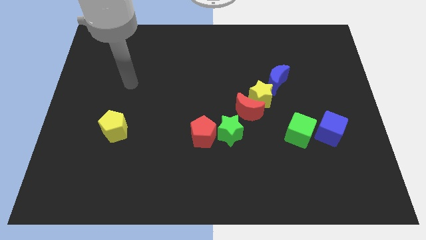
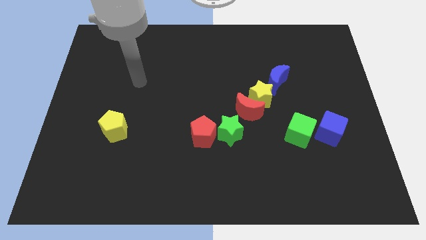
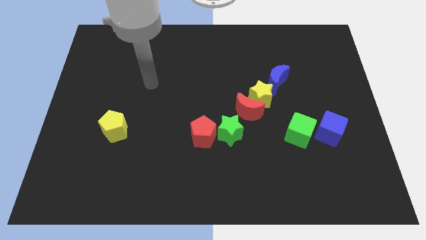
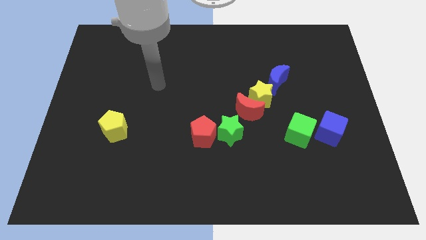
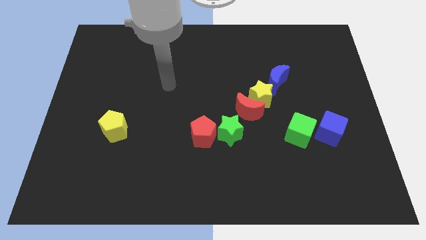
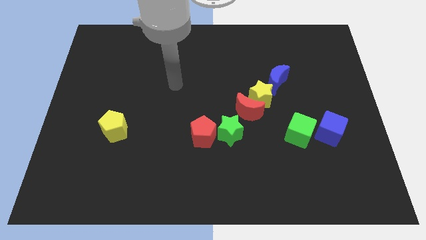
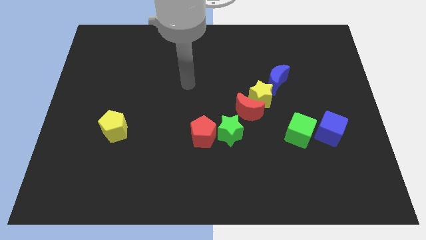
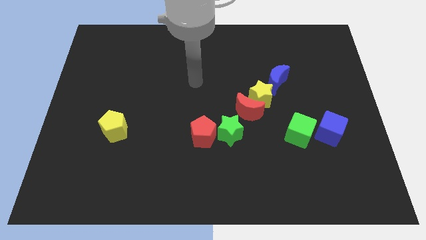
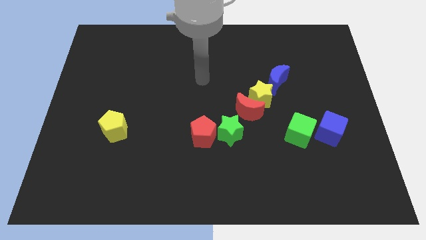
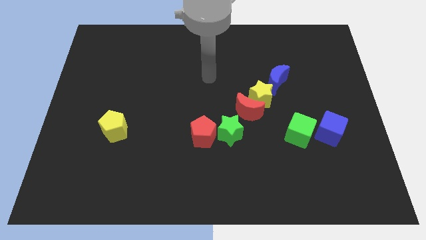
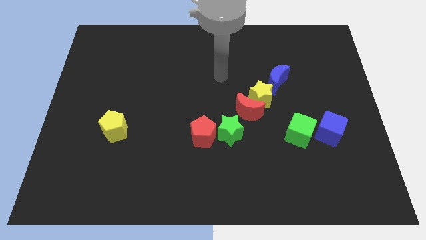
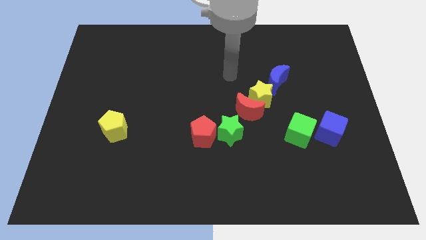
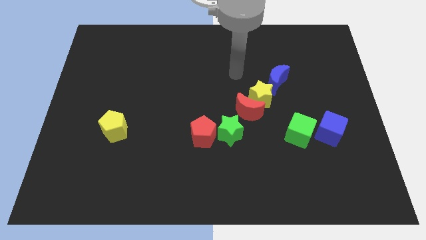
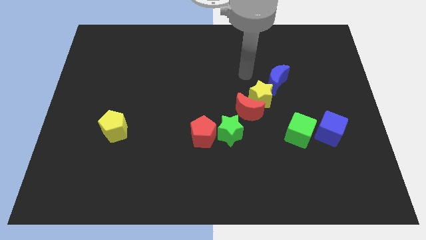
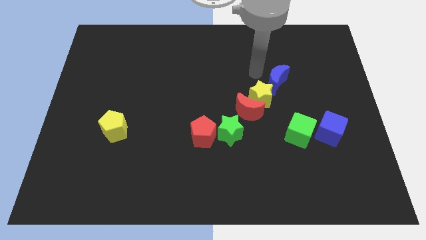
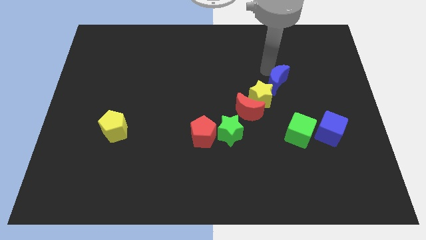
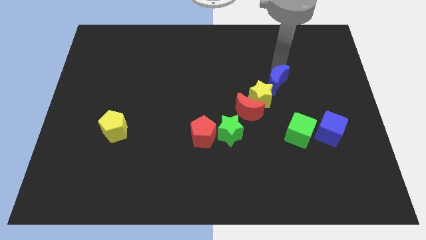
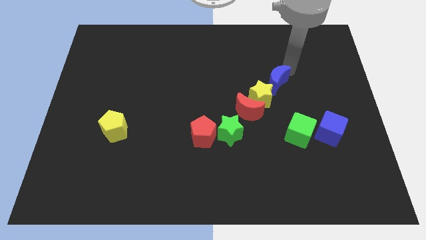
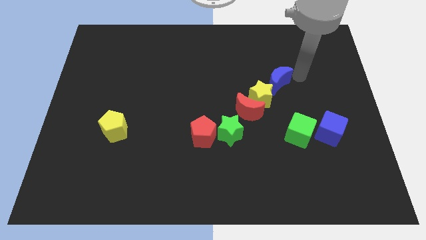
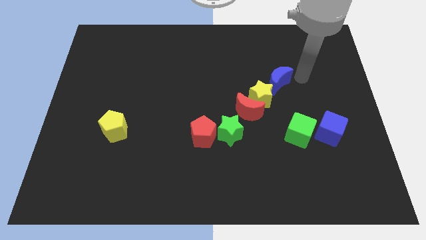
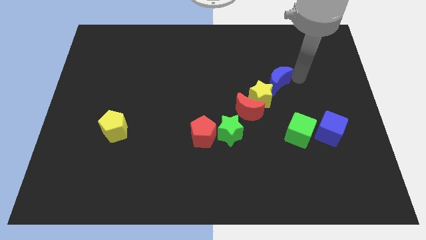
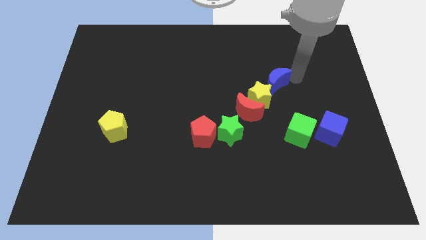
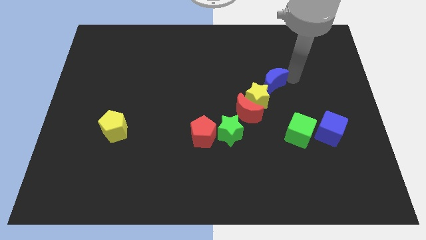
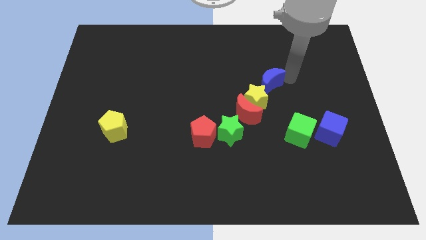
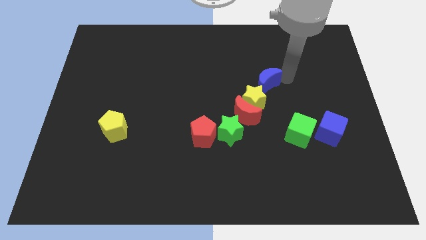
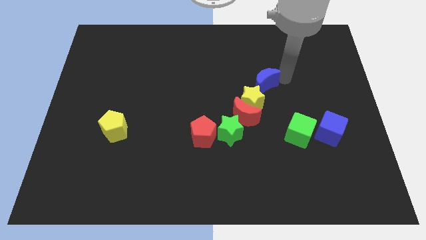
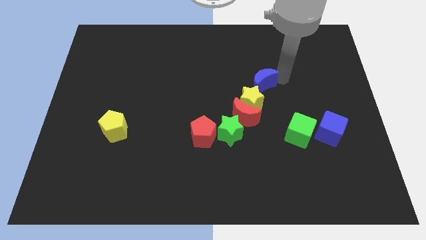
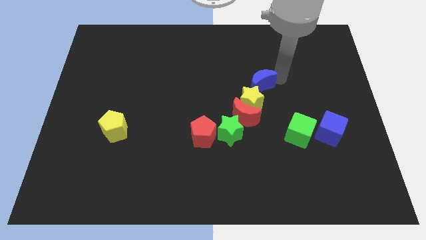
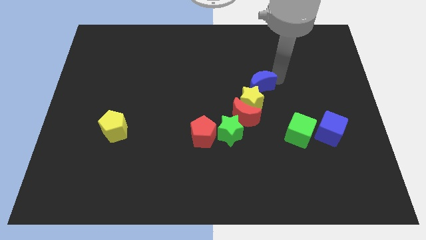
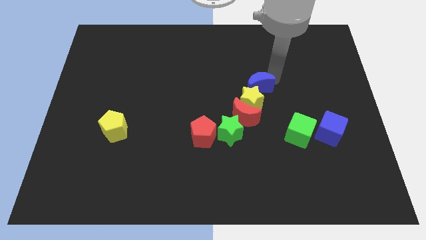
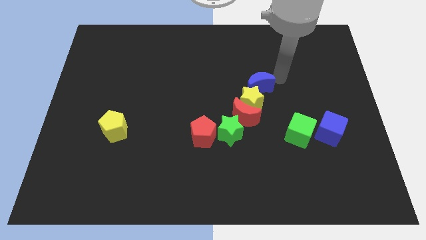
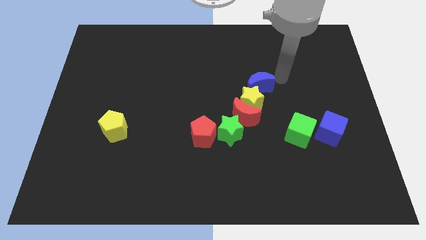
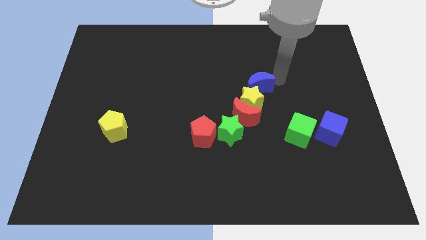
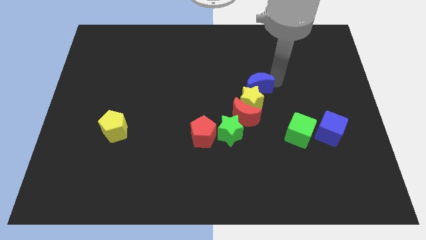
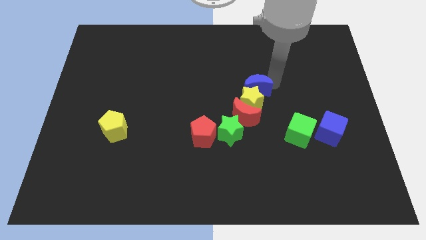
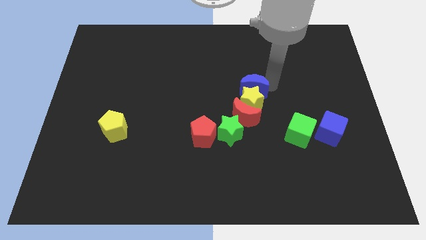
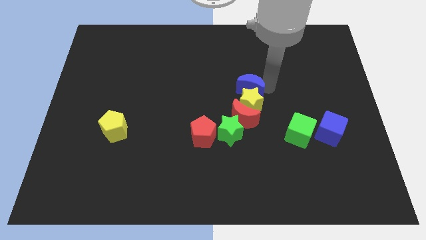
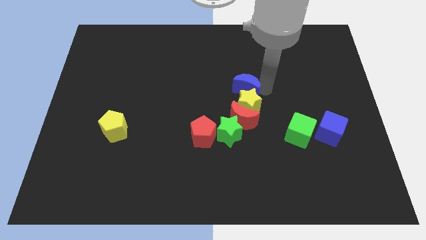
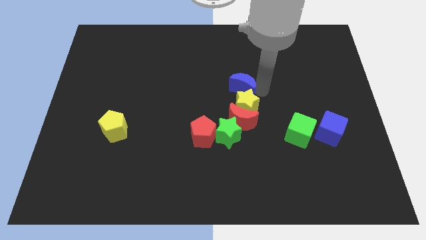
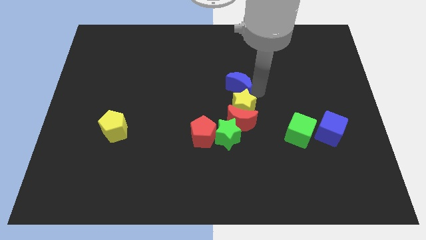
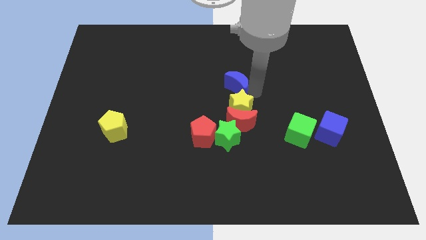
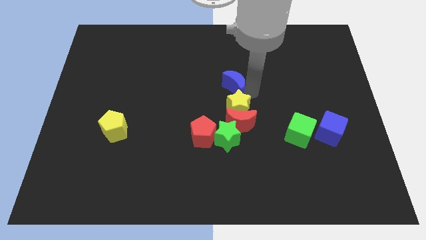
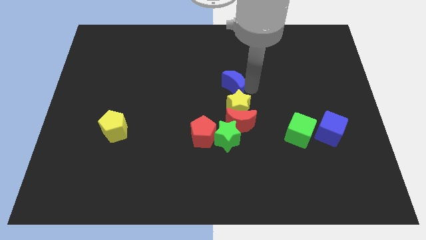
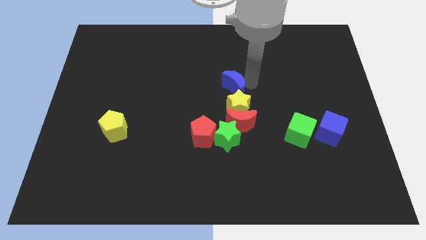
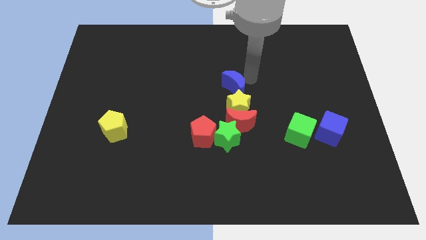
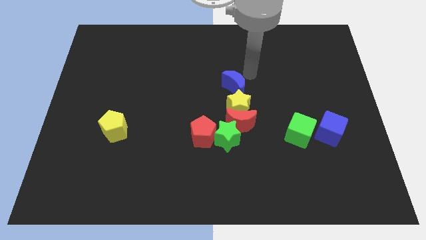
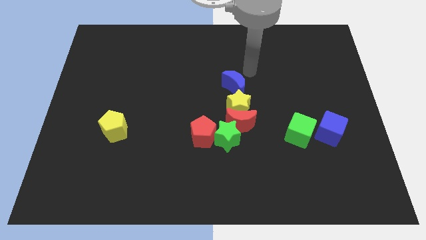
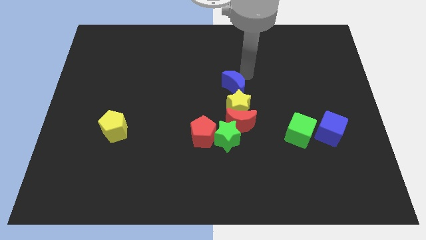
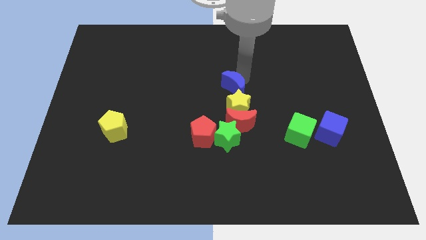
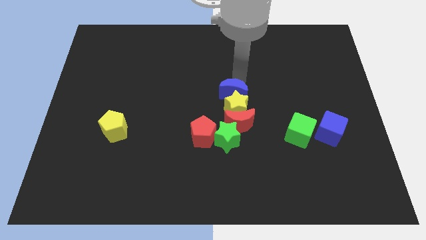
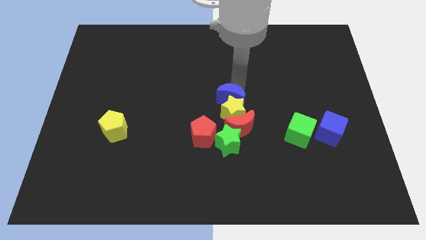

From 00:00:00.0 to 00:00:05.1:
put the blue moon to the top left side of the red moon

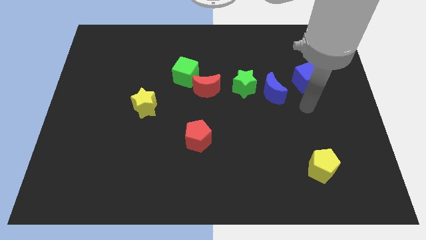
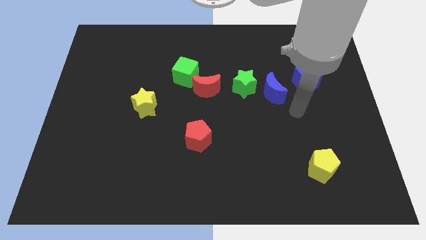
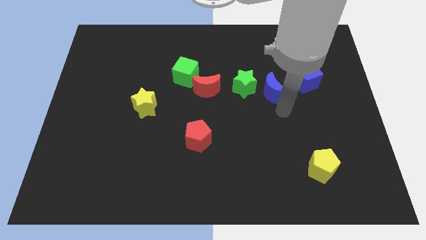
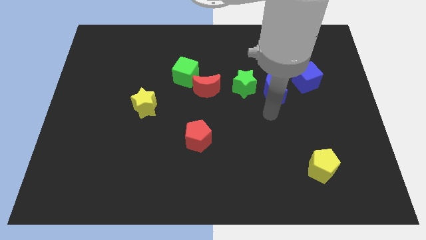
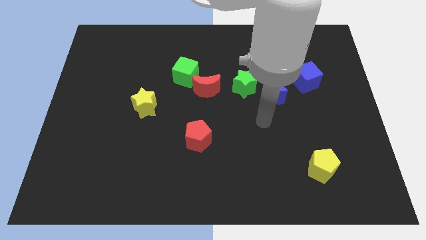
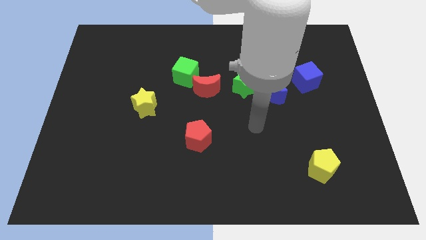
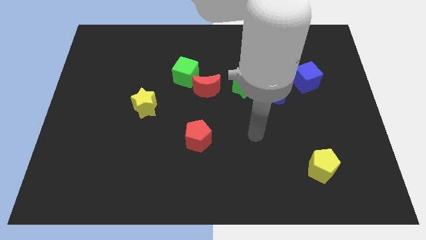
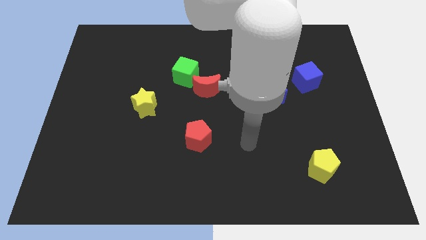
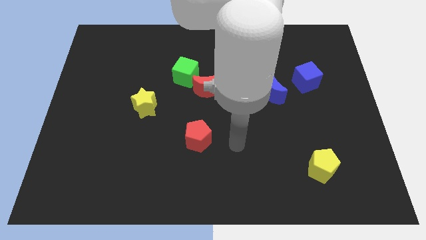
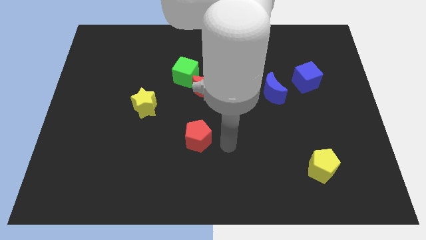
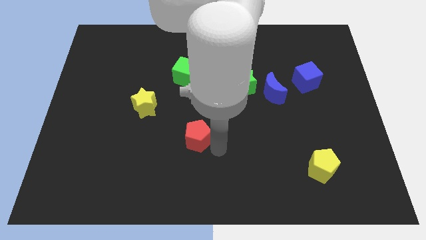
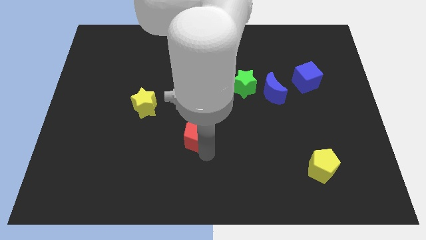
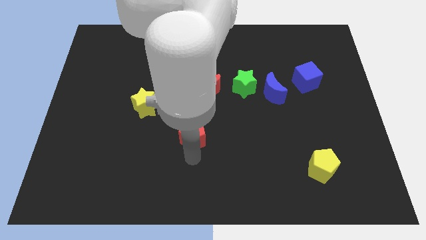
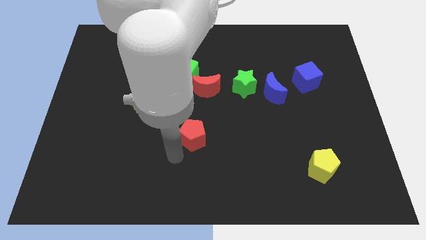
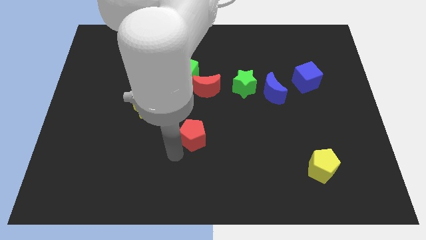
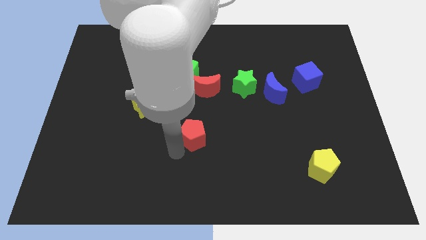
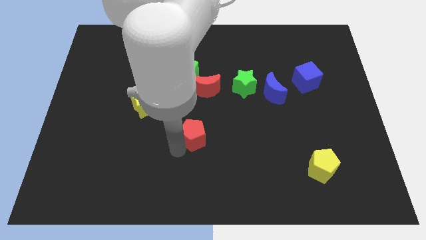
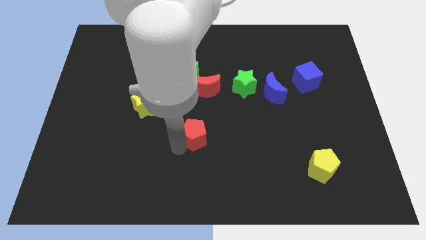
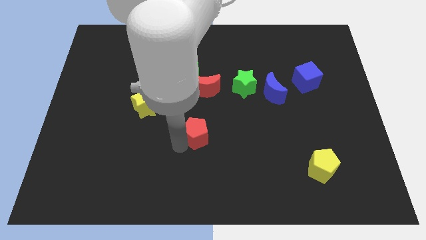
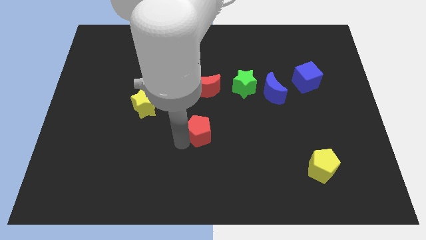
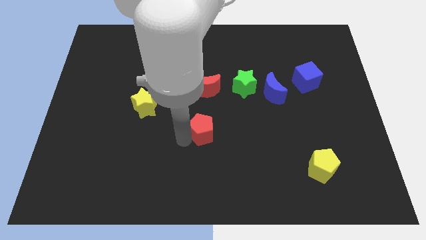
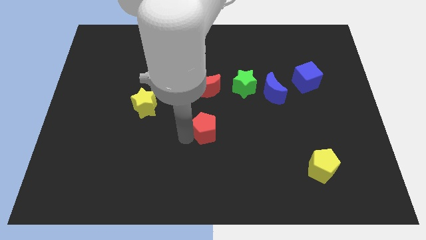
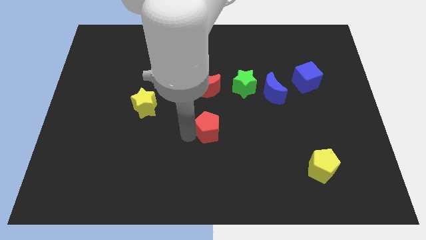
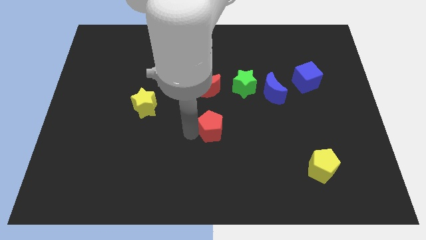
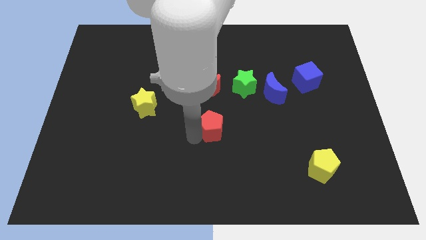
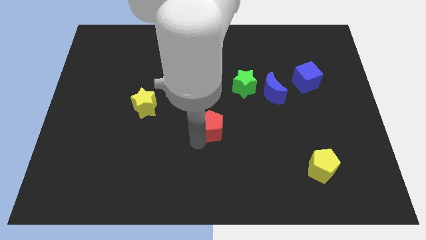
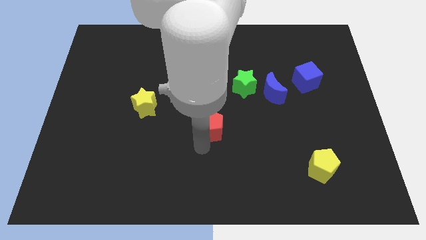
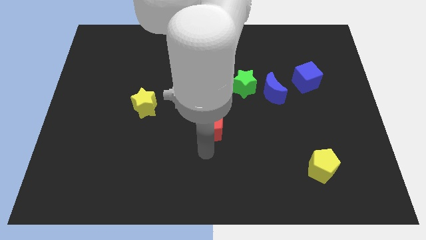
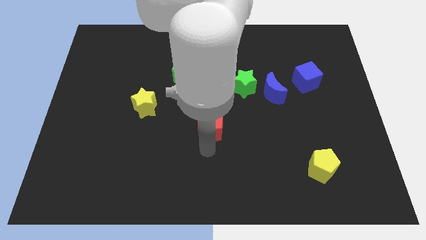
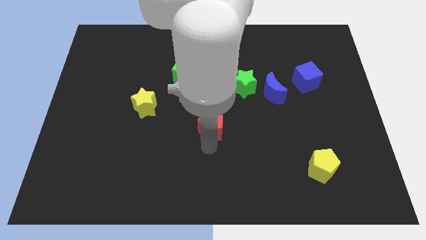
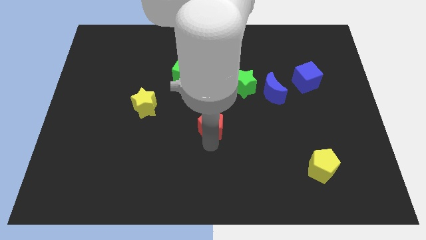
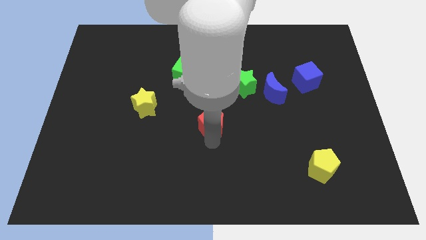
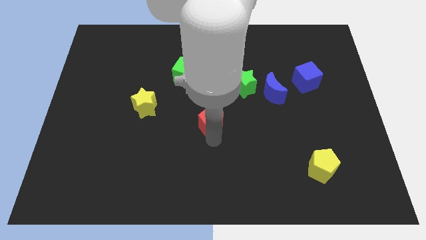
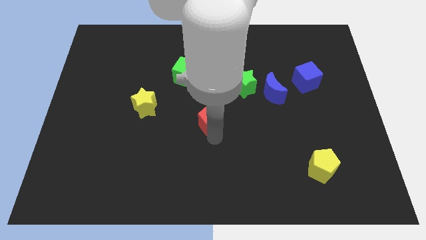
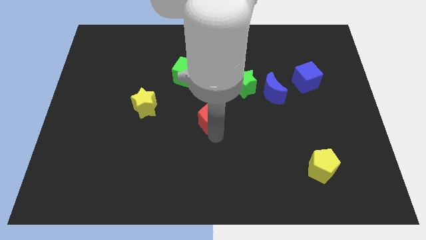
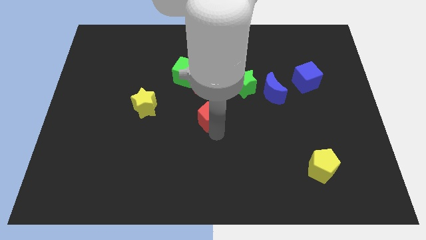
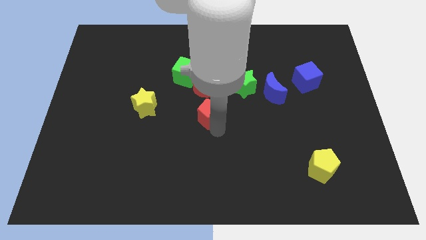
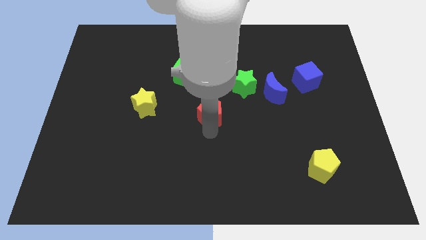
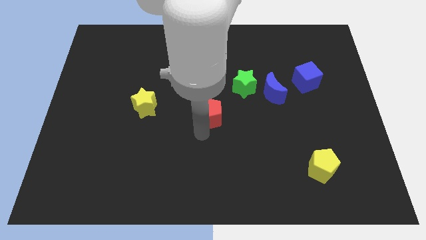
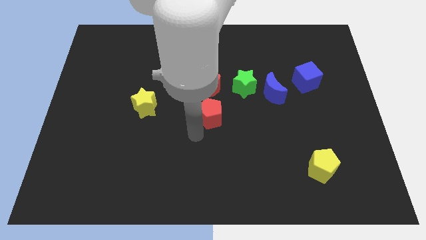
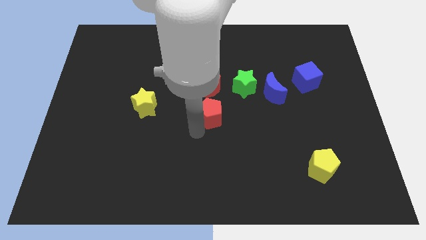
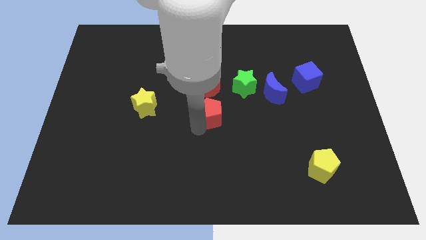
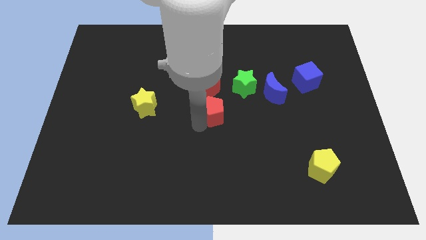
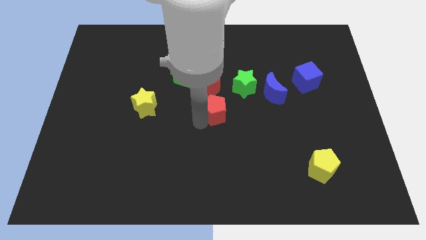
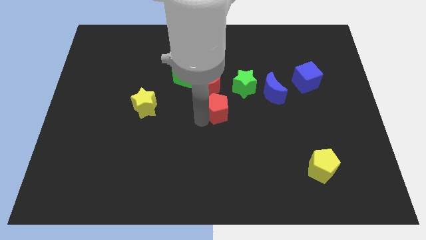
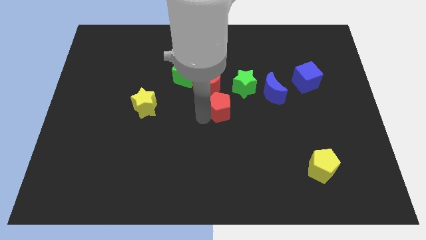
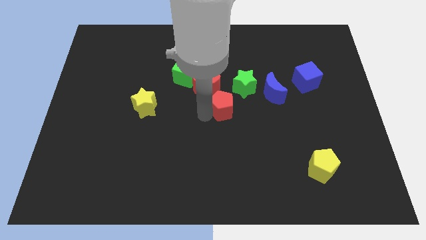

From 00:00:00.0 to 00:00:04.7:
put the red pentagon to the left side of the blue moon
